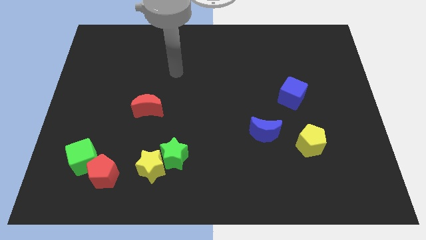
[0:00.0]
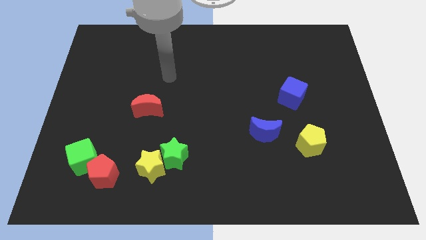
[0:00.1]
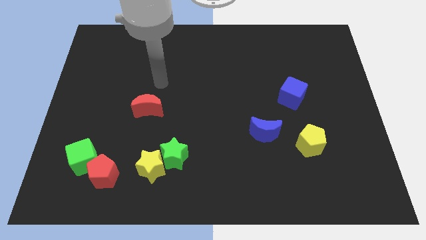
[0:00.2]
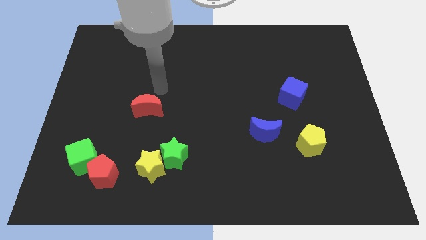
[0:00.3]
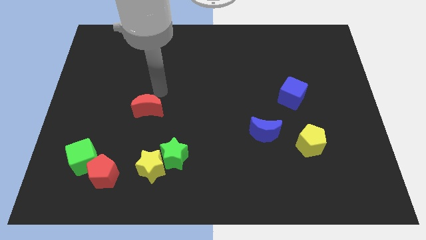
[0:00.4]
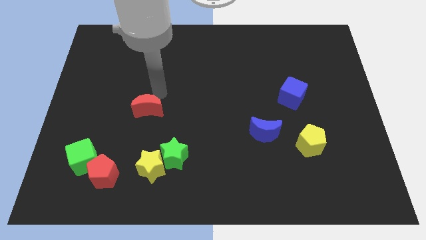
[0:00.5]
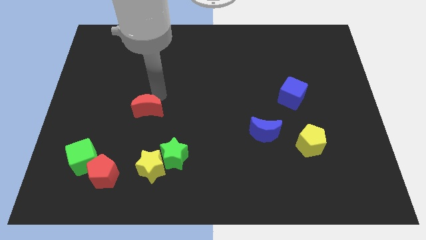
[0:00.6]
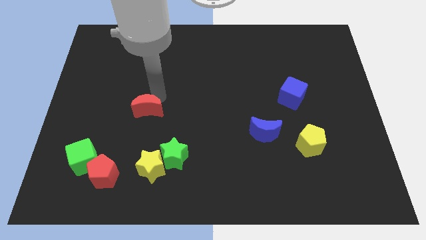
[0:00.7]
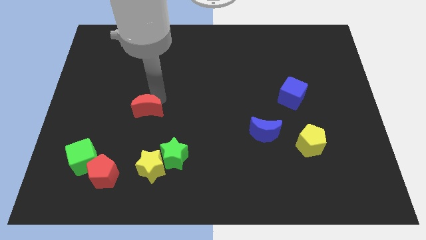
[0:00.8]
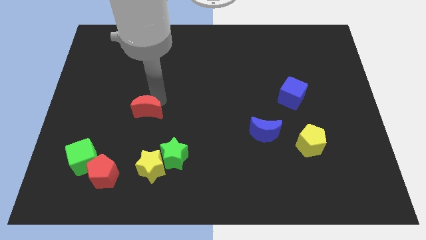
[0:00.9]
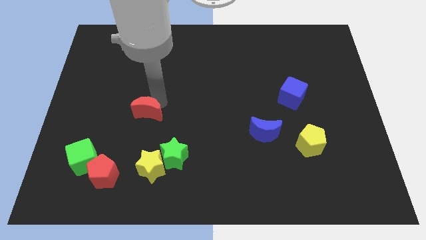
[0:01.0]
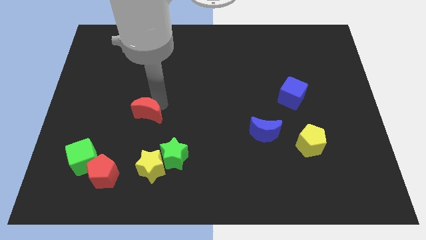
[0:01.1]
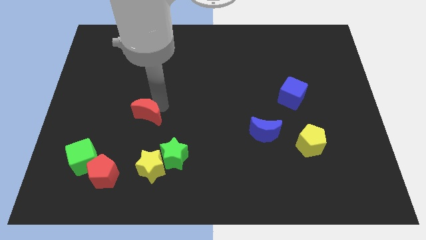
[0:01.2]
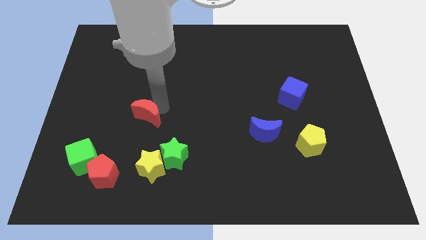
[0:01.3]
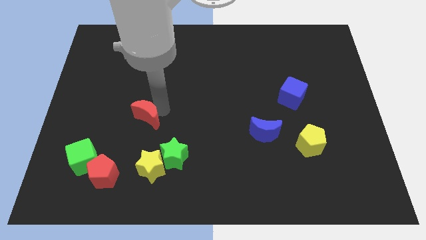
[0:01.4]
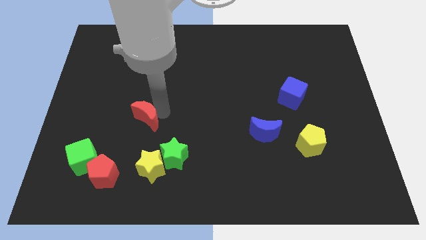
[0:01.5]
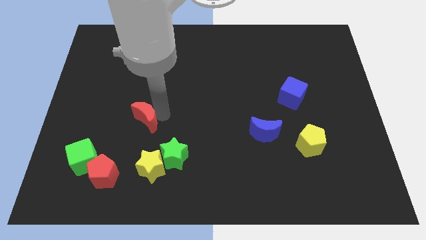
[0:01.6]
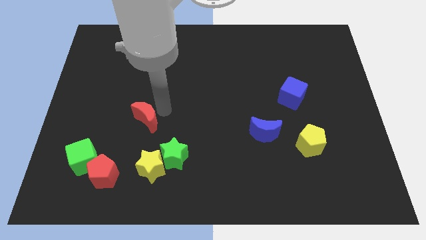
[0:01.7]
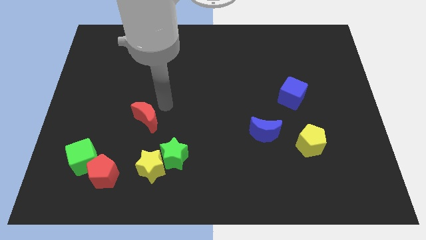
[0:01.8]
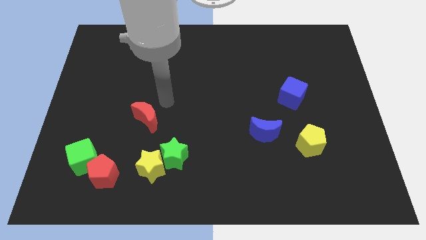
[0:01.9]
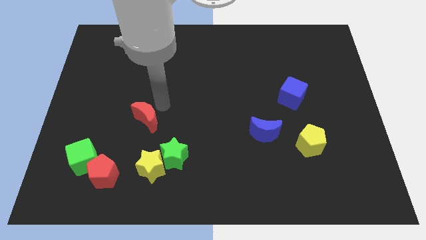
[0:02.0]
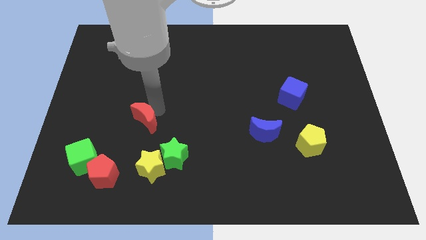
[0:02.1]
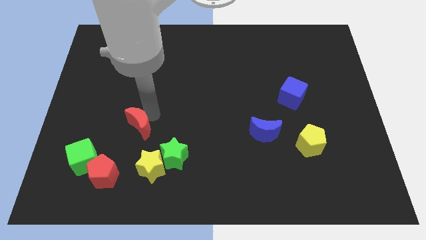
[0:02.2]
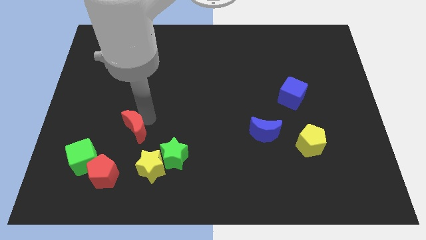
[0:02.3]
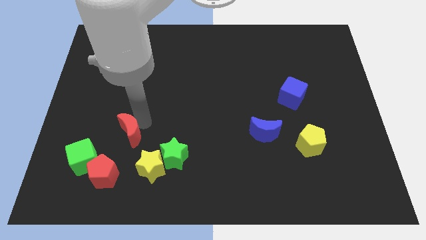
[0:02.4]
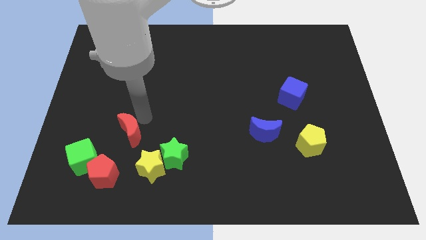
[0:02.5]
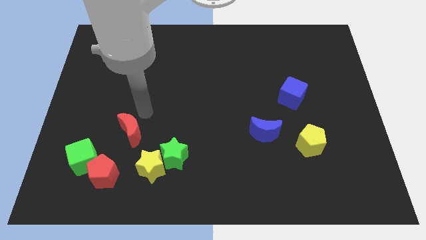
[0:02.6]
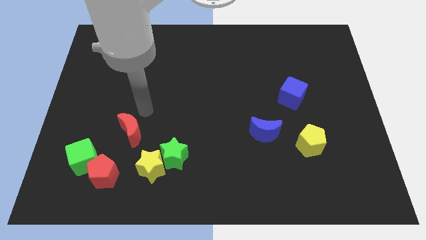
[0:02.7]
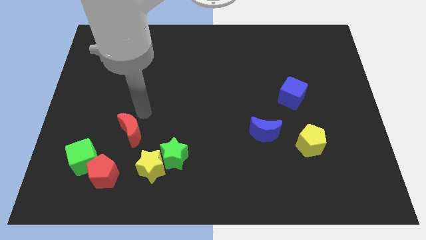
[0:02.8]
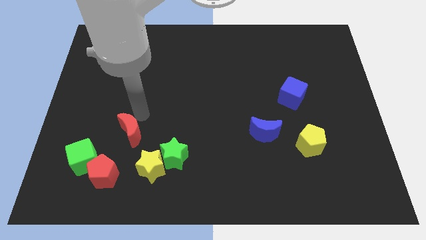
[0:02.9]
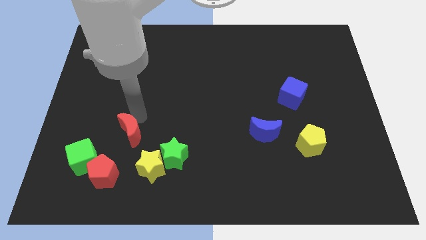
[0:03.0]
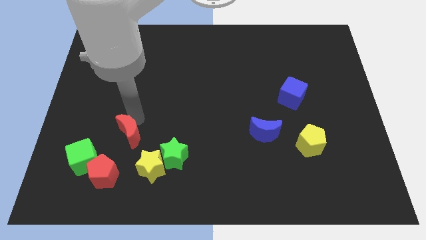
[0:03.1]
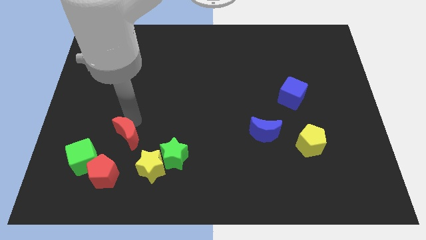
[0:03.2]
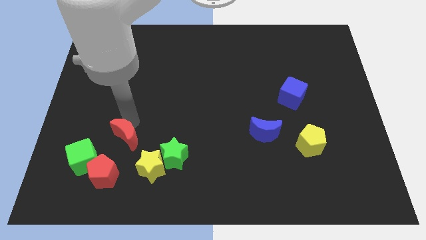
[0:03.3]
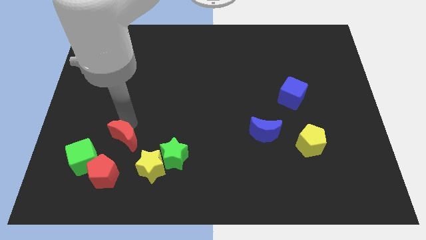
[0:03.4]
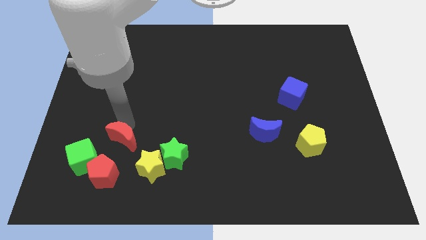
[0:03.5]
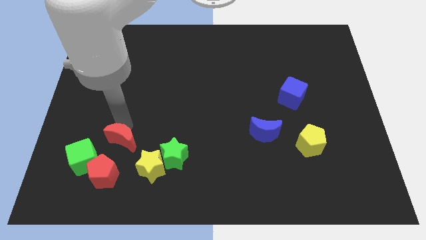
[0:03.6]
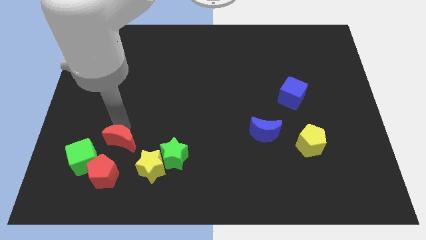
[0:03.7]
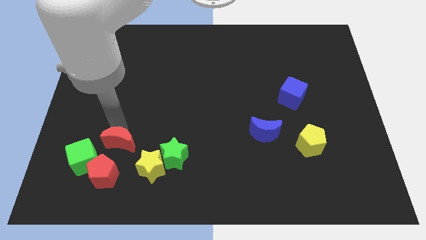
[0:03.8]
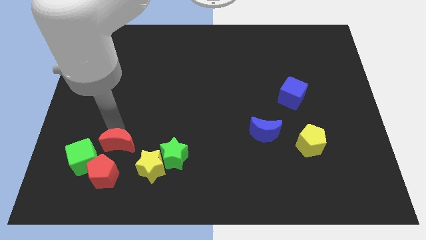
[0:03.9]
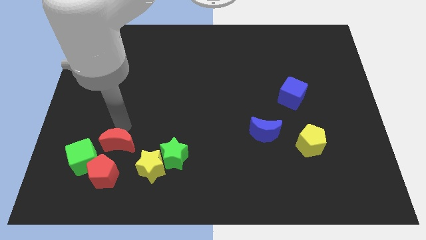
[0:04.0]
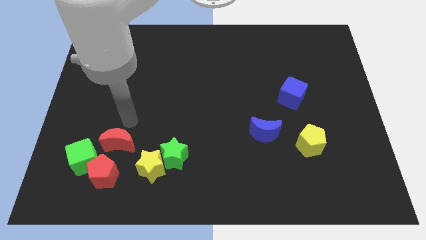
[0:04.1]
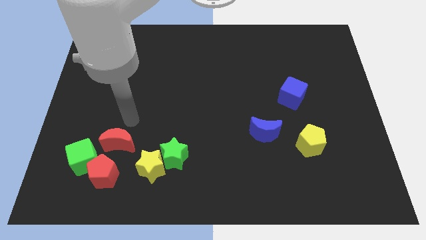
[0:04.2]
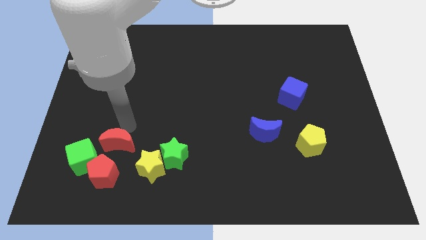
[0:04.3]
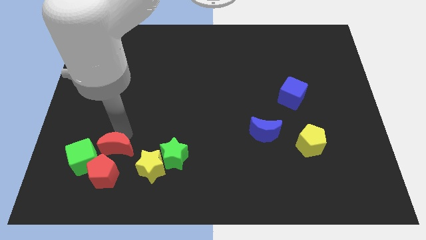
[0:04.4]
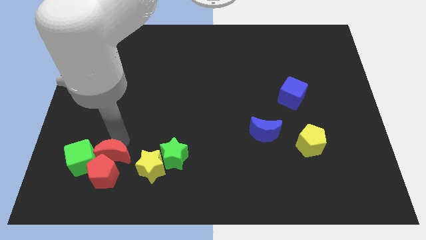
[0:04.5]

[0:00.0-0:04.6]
put the red moon close to the red pentagon

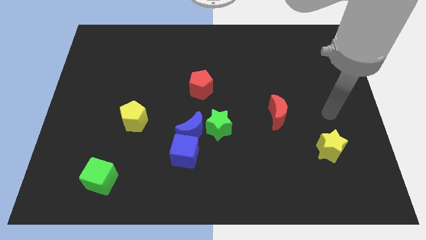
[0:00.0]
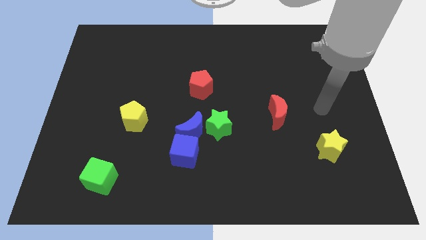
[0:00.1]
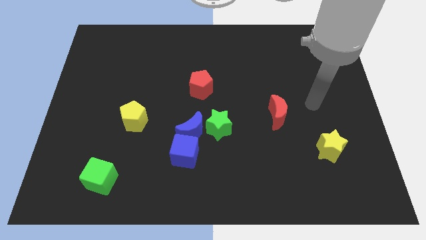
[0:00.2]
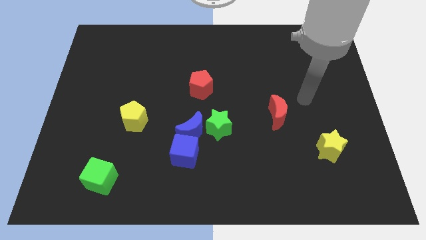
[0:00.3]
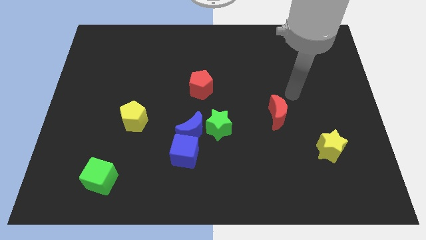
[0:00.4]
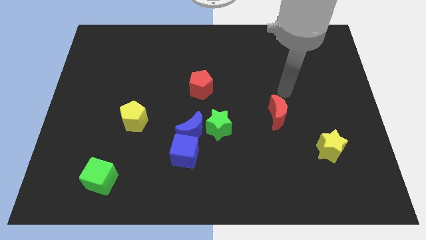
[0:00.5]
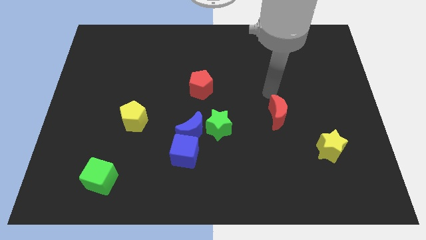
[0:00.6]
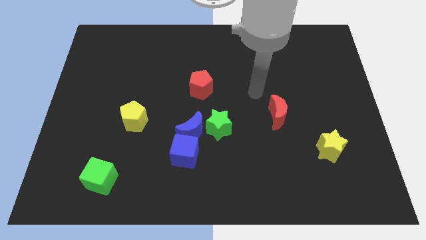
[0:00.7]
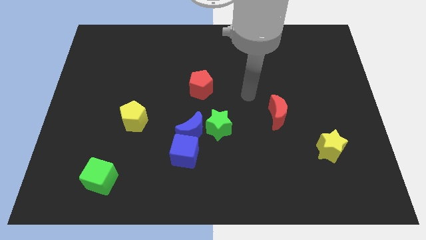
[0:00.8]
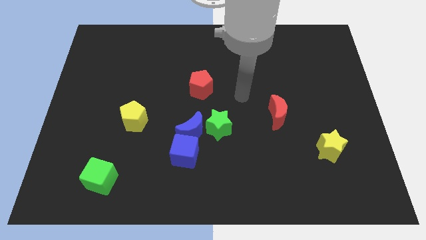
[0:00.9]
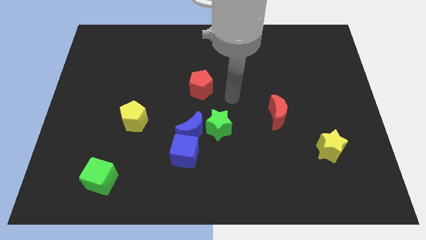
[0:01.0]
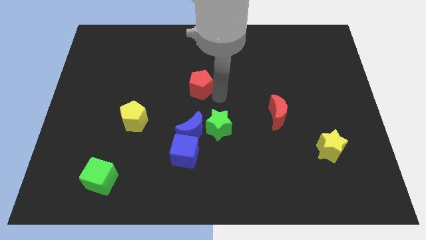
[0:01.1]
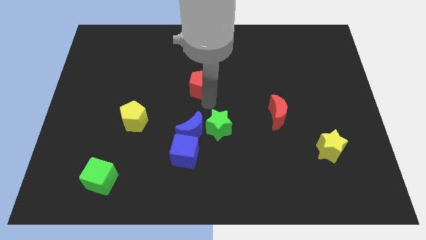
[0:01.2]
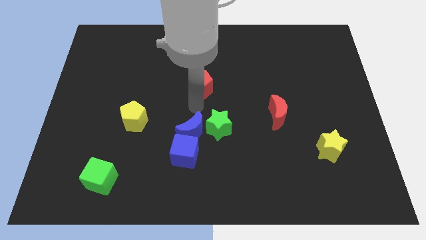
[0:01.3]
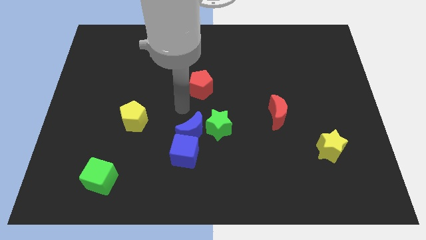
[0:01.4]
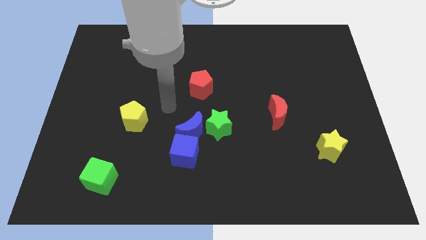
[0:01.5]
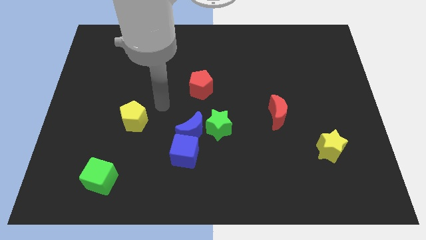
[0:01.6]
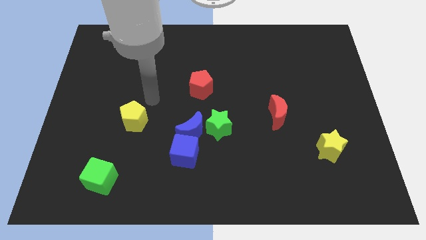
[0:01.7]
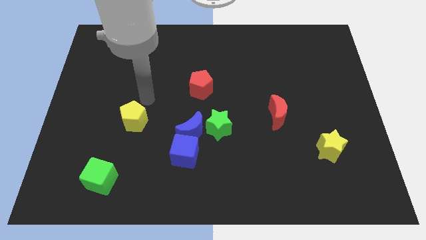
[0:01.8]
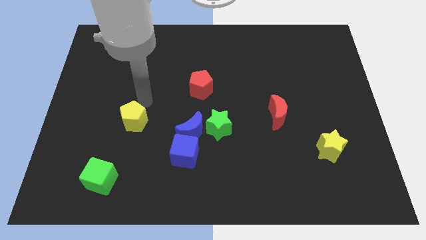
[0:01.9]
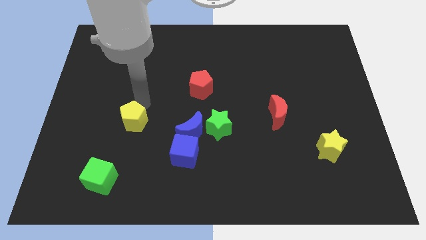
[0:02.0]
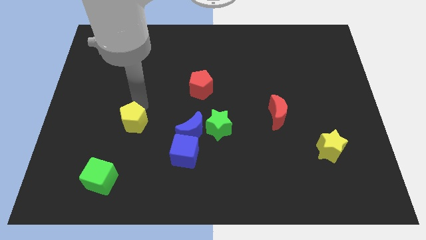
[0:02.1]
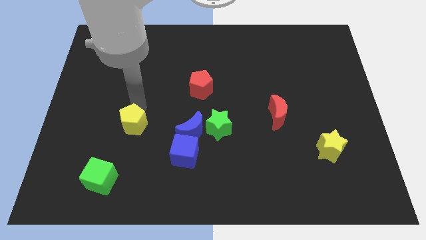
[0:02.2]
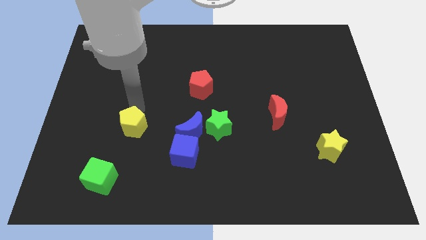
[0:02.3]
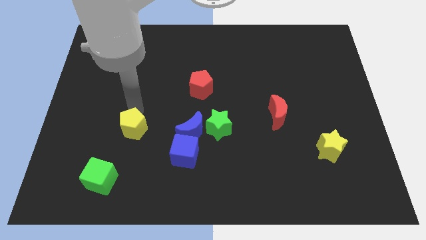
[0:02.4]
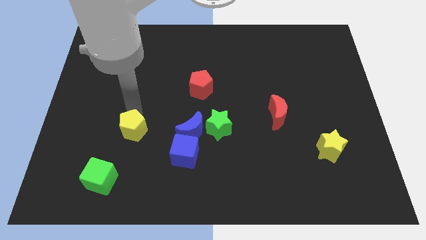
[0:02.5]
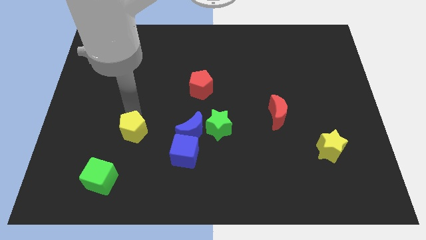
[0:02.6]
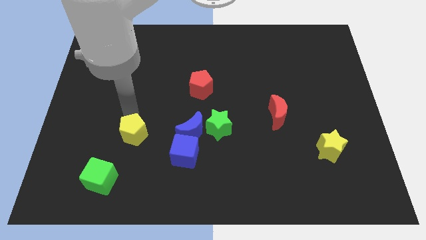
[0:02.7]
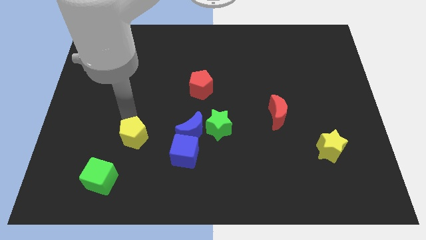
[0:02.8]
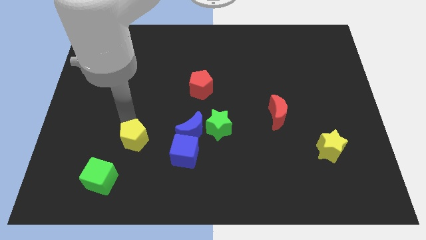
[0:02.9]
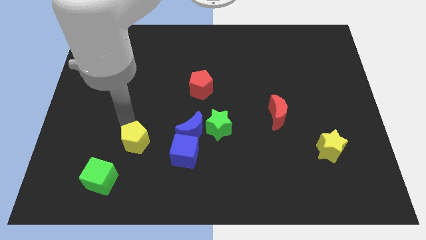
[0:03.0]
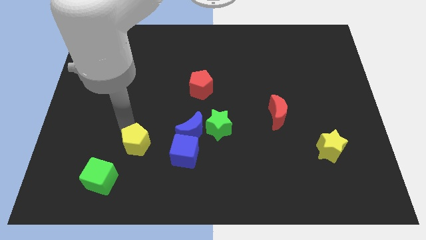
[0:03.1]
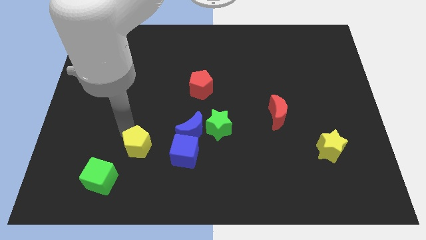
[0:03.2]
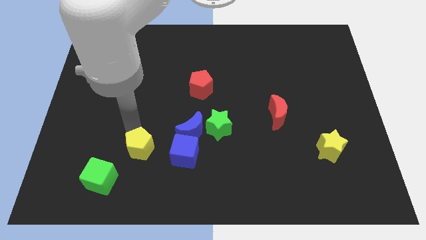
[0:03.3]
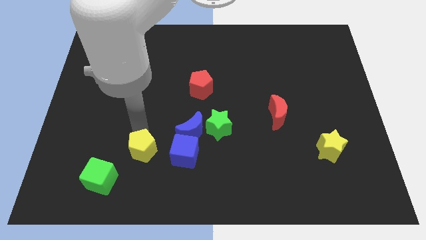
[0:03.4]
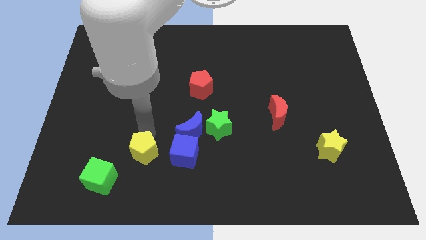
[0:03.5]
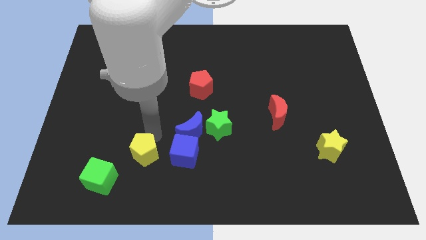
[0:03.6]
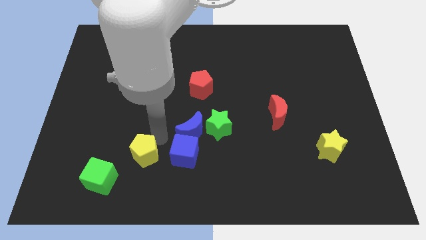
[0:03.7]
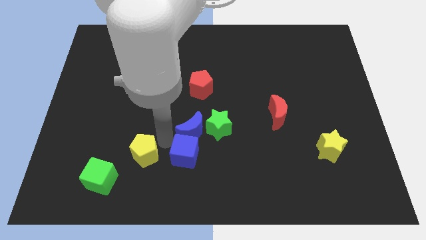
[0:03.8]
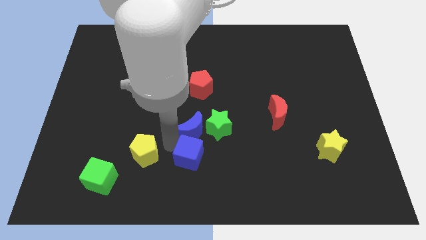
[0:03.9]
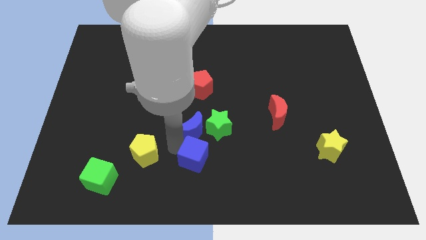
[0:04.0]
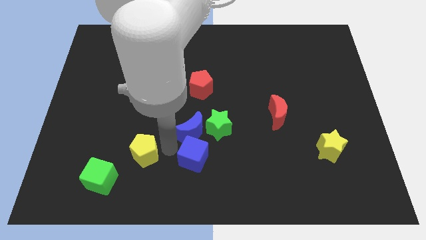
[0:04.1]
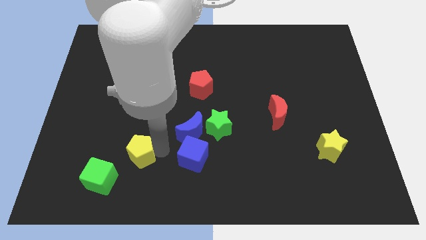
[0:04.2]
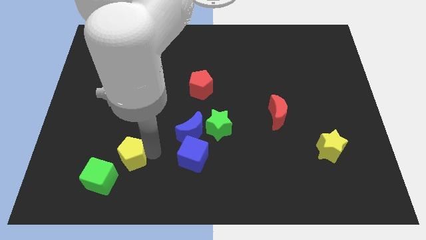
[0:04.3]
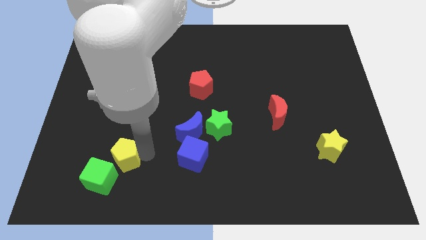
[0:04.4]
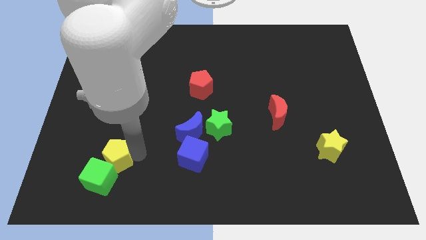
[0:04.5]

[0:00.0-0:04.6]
slide the yellow pentagon next to the green cube
